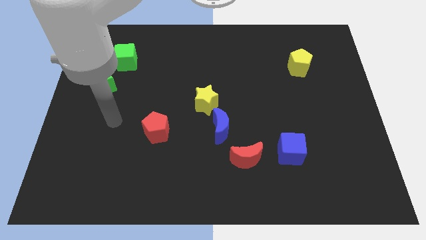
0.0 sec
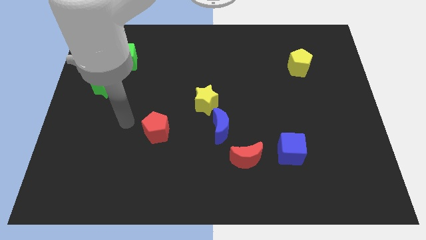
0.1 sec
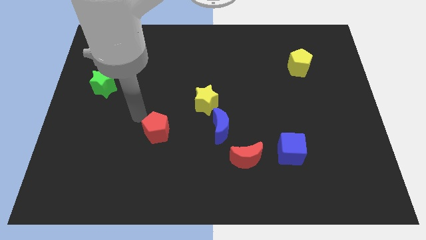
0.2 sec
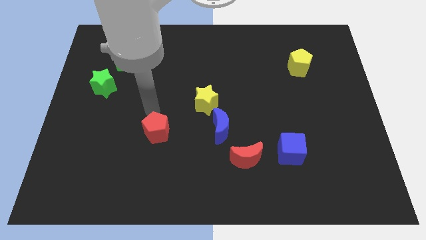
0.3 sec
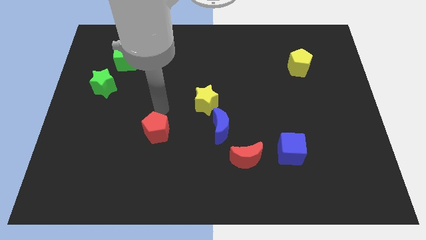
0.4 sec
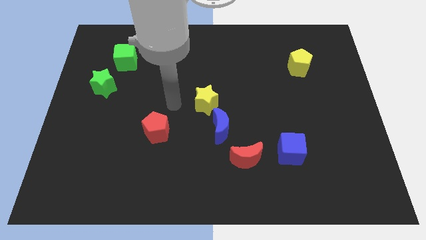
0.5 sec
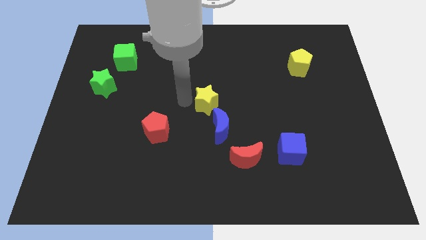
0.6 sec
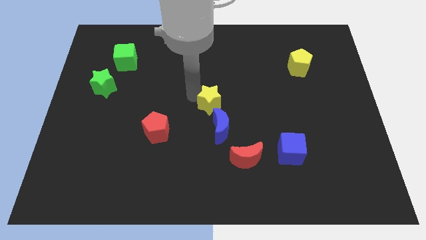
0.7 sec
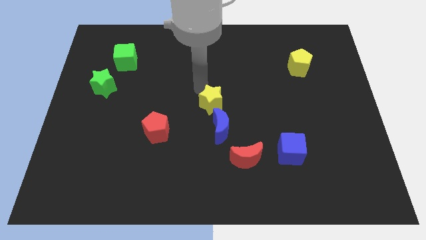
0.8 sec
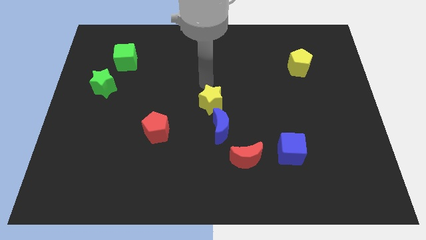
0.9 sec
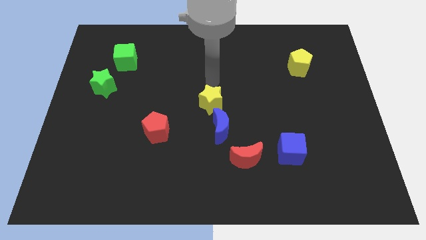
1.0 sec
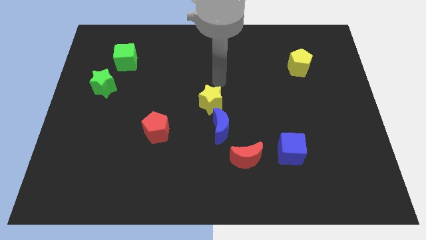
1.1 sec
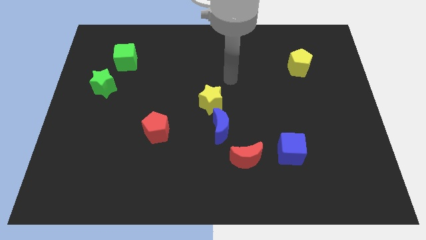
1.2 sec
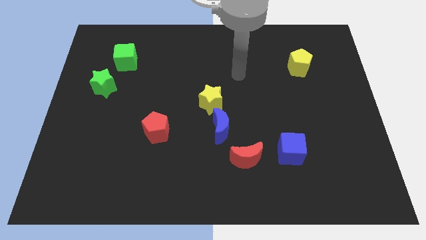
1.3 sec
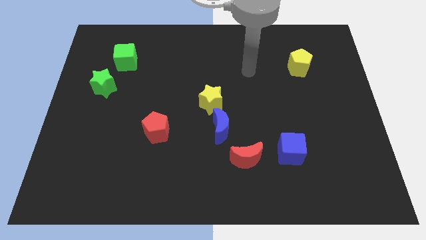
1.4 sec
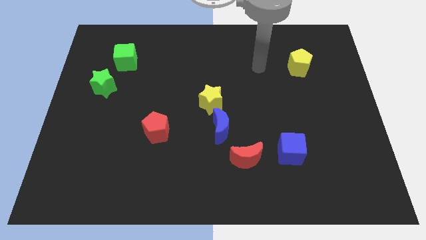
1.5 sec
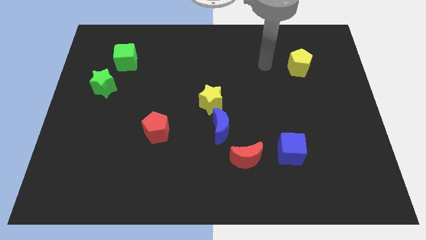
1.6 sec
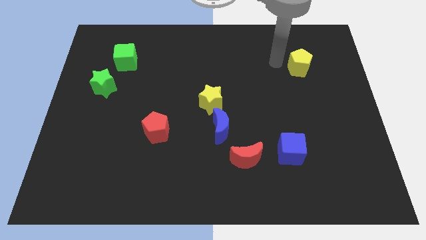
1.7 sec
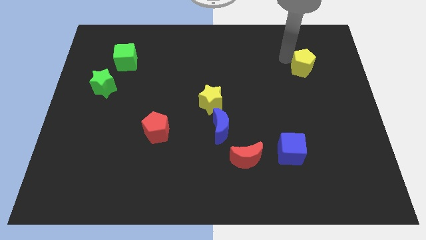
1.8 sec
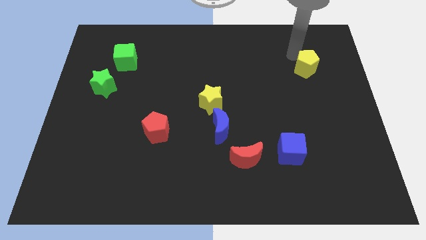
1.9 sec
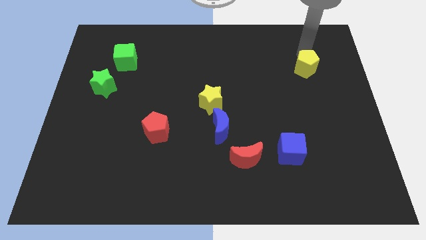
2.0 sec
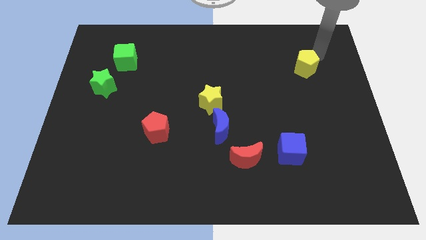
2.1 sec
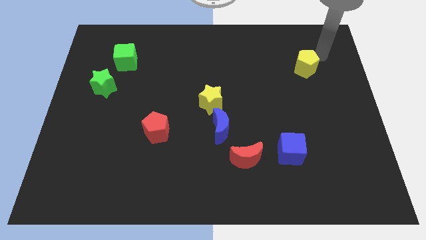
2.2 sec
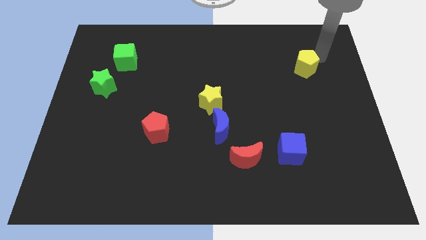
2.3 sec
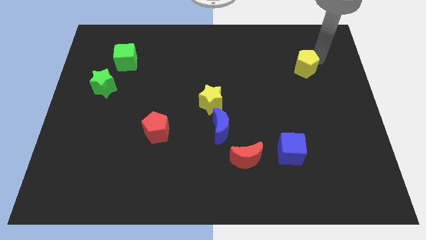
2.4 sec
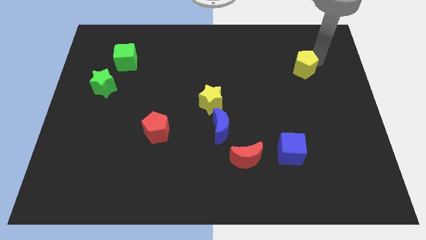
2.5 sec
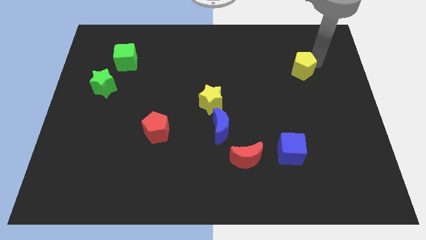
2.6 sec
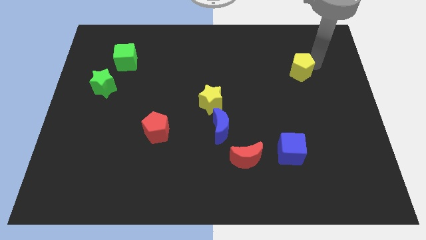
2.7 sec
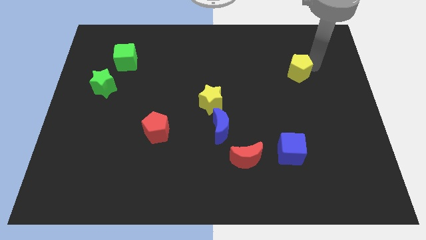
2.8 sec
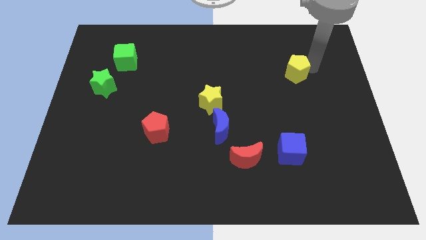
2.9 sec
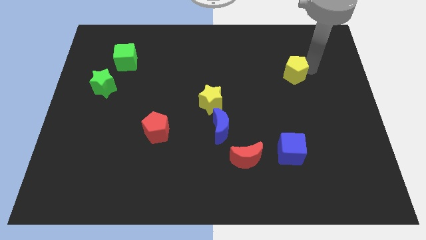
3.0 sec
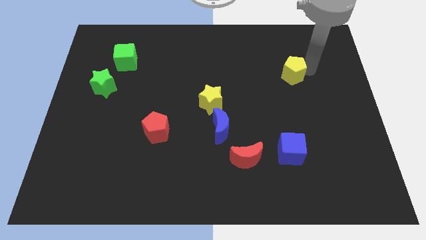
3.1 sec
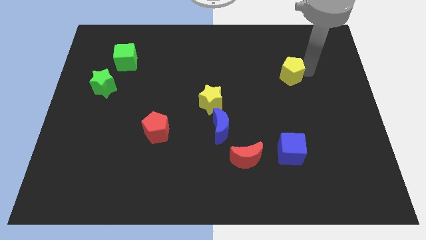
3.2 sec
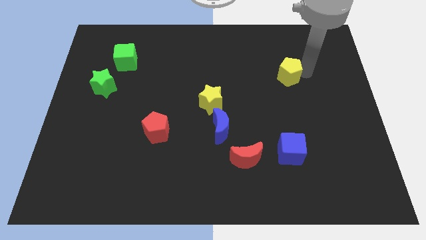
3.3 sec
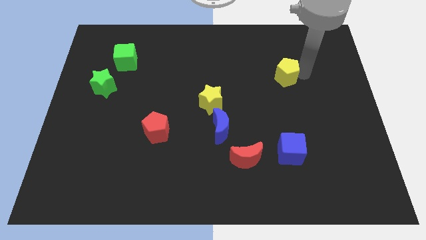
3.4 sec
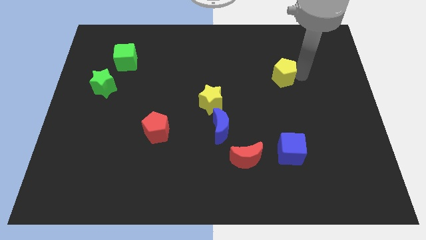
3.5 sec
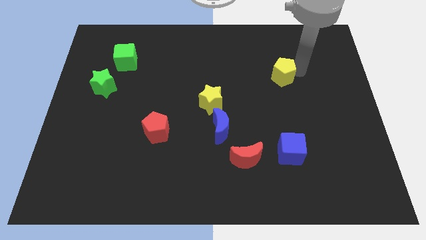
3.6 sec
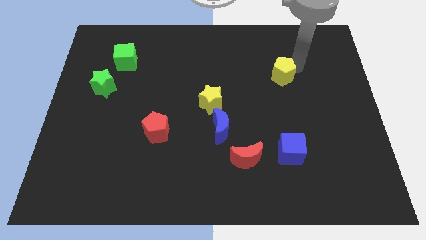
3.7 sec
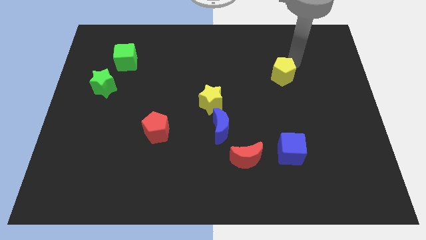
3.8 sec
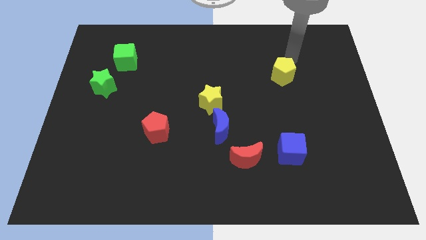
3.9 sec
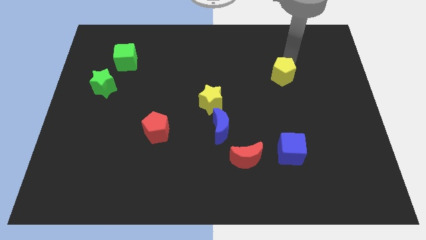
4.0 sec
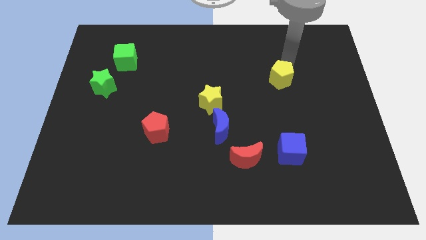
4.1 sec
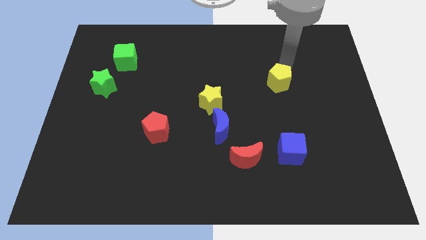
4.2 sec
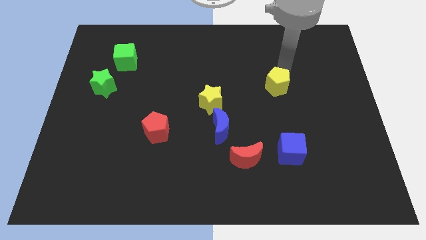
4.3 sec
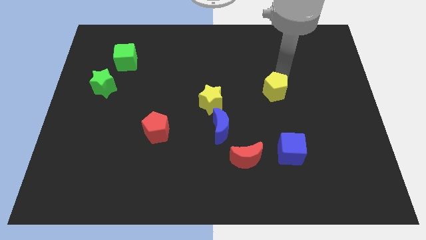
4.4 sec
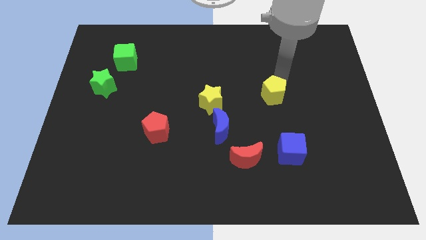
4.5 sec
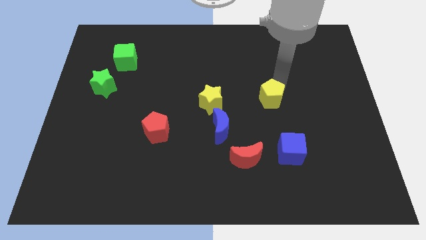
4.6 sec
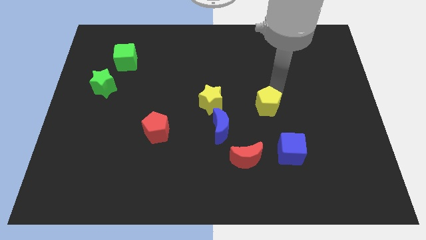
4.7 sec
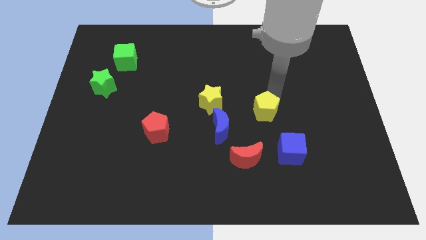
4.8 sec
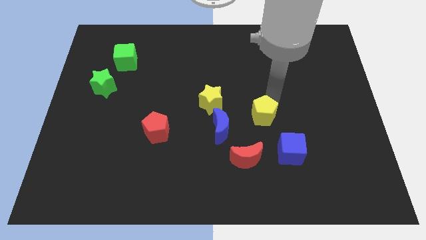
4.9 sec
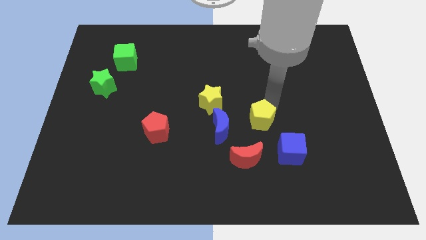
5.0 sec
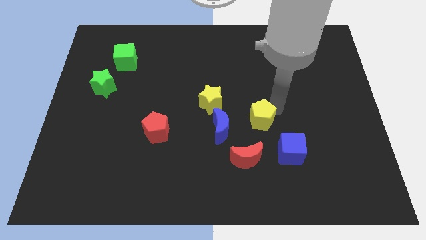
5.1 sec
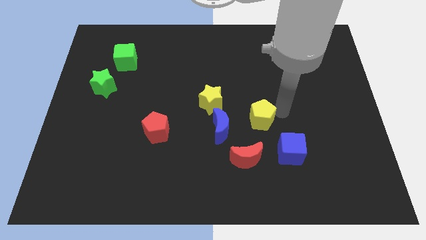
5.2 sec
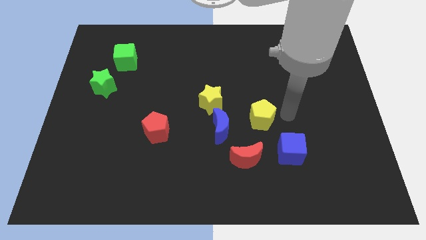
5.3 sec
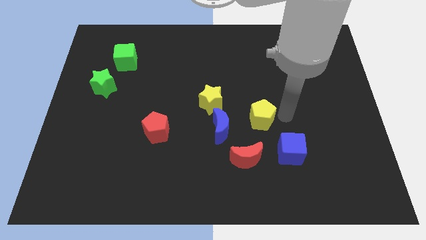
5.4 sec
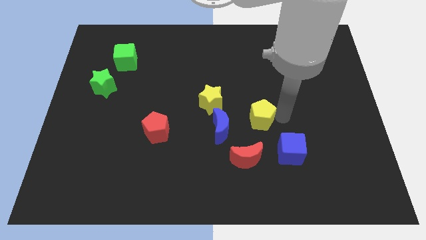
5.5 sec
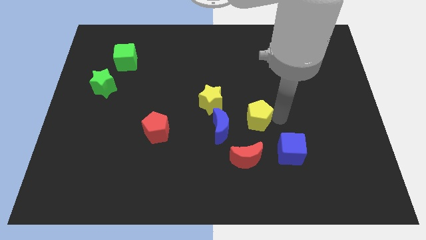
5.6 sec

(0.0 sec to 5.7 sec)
put the yellow pentagon diagonally down and to the right of the yellow star

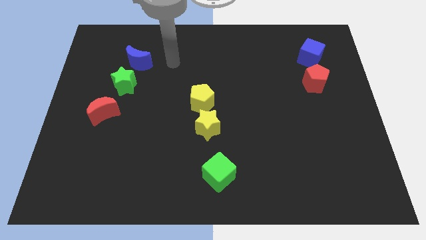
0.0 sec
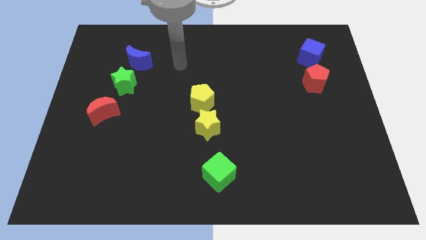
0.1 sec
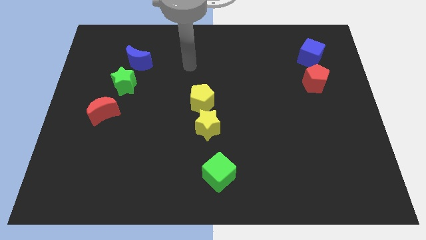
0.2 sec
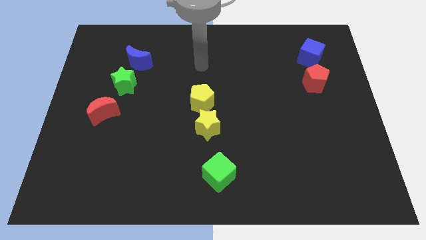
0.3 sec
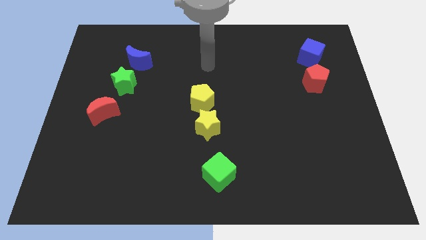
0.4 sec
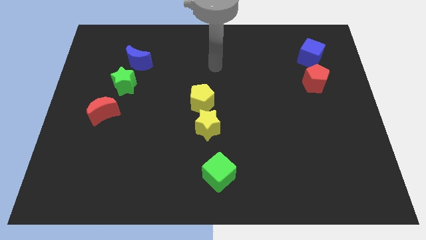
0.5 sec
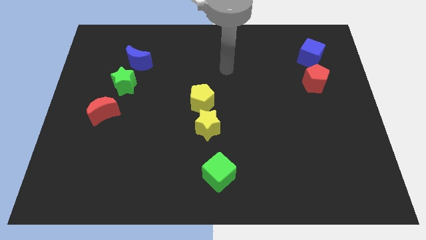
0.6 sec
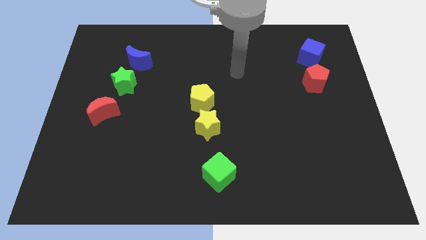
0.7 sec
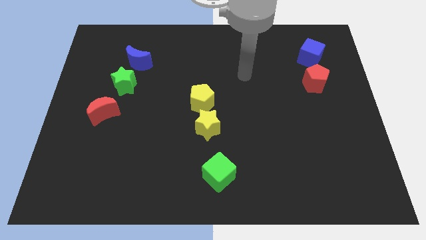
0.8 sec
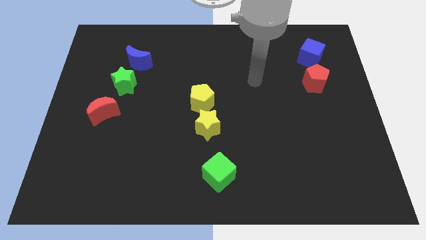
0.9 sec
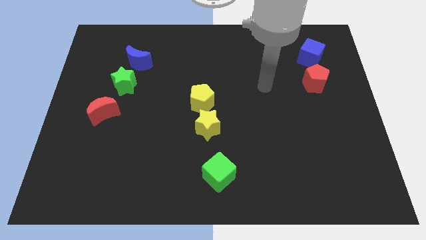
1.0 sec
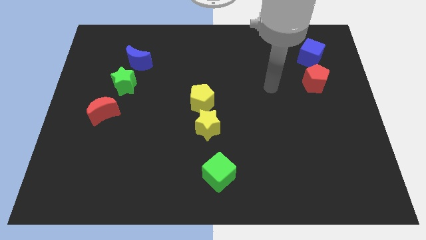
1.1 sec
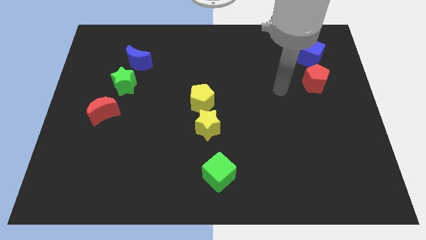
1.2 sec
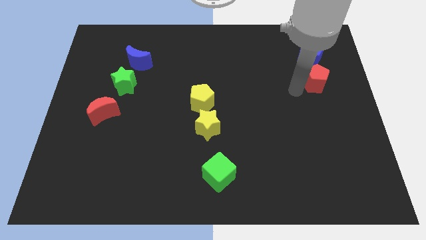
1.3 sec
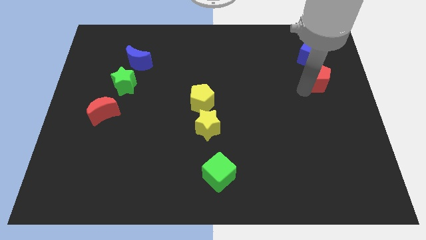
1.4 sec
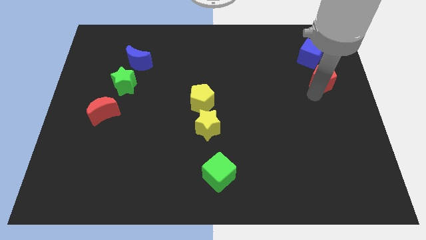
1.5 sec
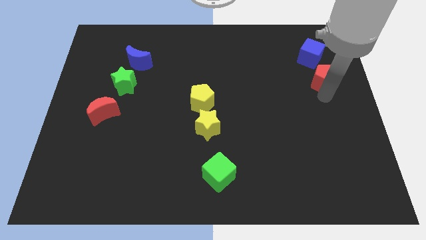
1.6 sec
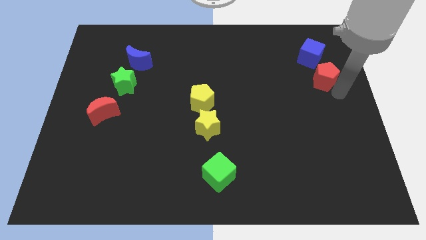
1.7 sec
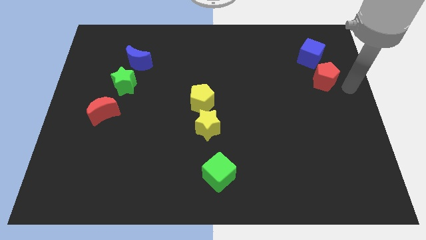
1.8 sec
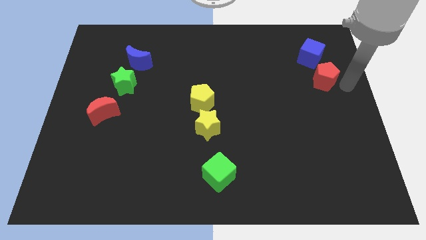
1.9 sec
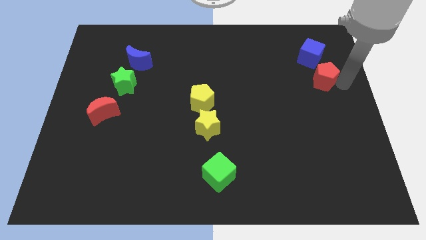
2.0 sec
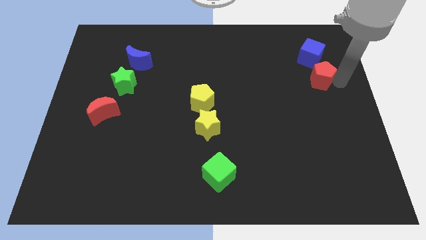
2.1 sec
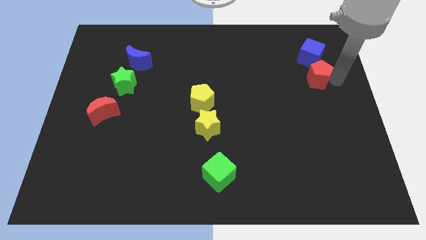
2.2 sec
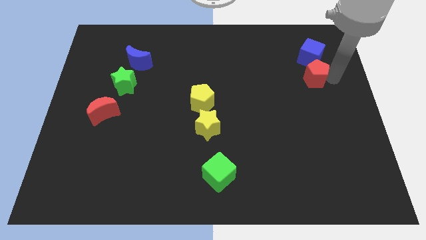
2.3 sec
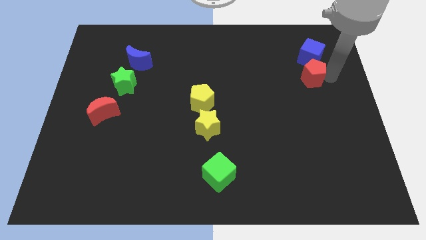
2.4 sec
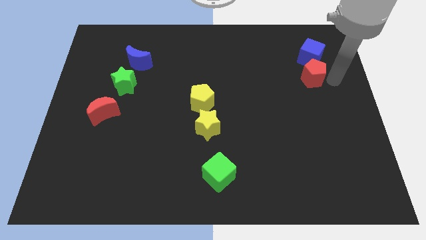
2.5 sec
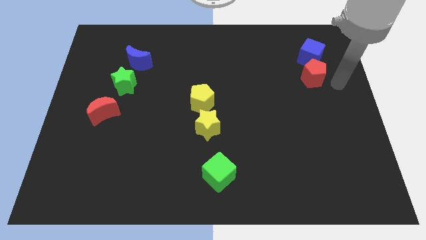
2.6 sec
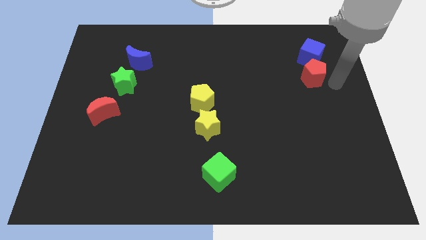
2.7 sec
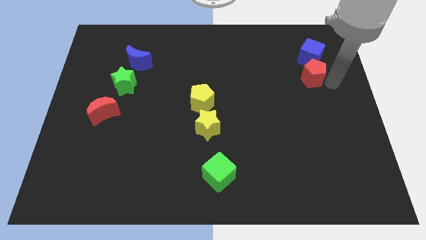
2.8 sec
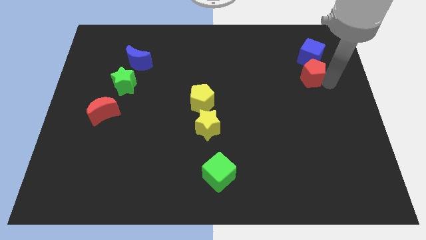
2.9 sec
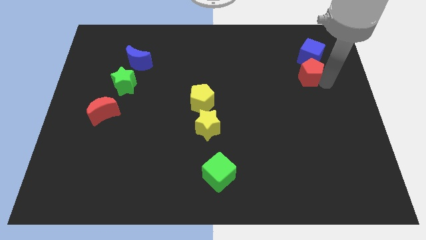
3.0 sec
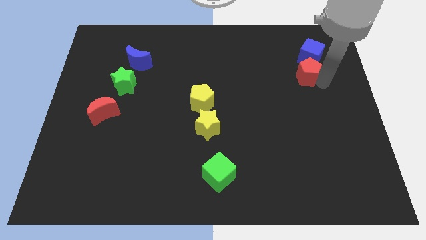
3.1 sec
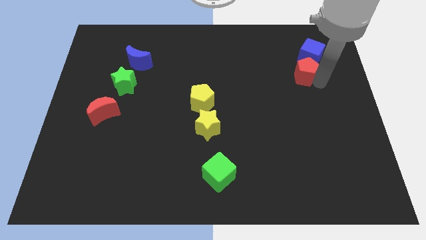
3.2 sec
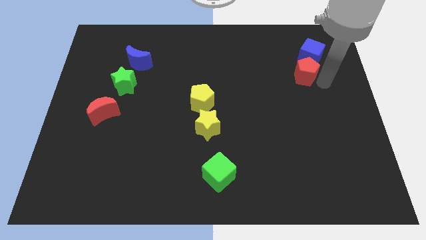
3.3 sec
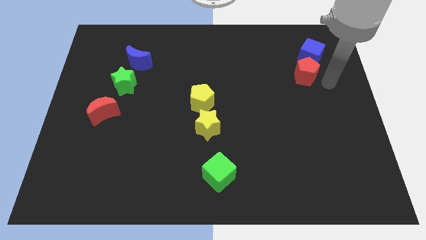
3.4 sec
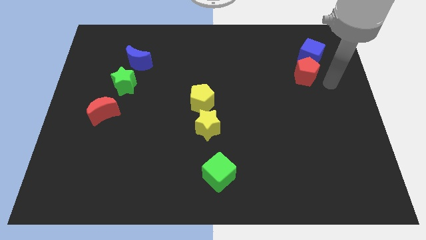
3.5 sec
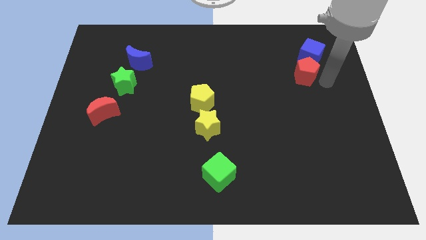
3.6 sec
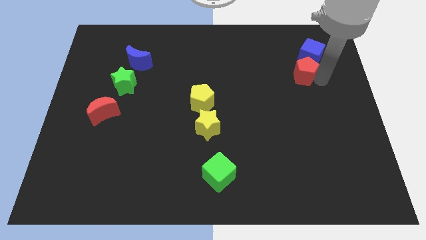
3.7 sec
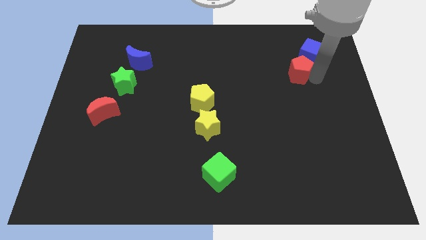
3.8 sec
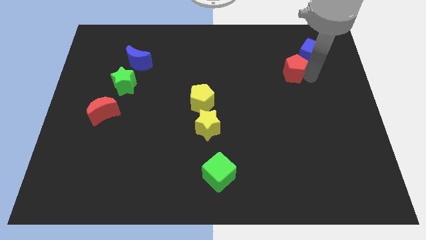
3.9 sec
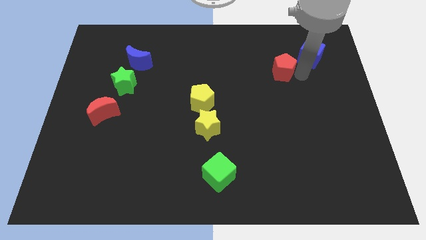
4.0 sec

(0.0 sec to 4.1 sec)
move the red pentagon to the left side of the blue cube
